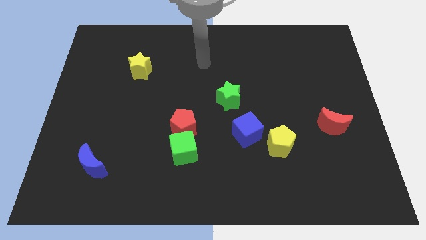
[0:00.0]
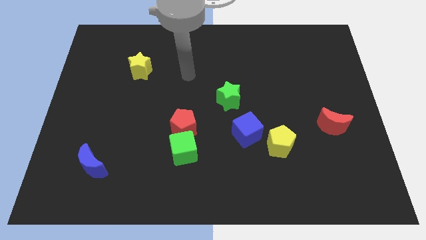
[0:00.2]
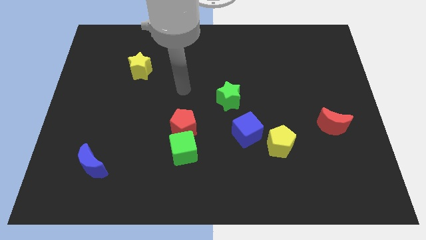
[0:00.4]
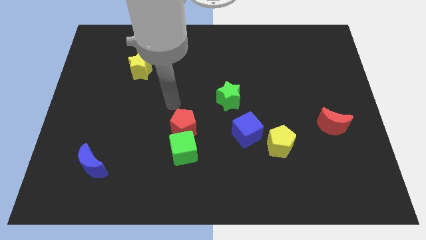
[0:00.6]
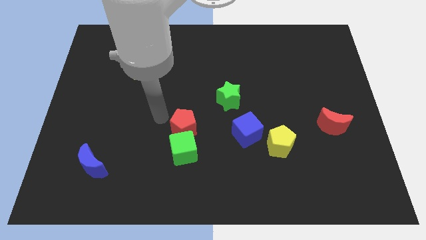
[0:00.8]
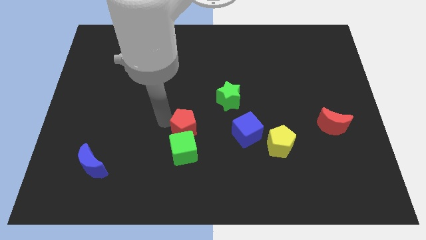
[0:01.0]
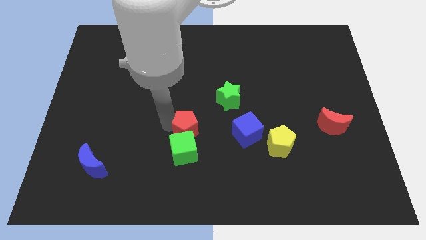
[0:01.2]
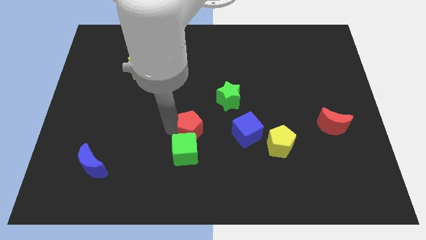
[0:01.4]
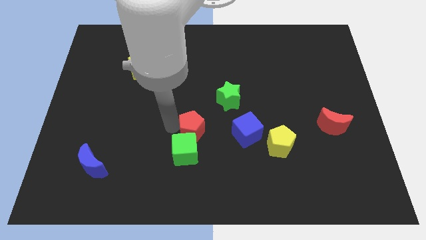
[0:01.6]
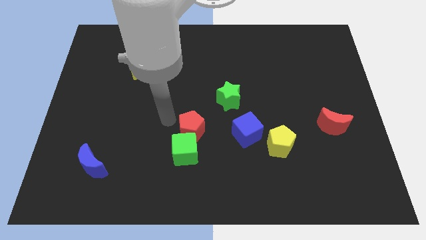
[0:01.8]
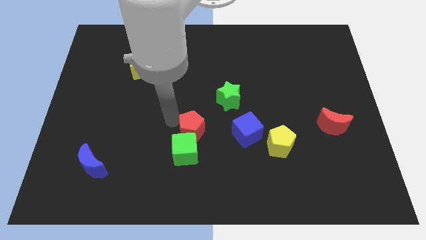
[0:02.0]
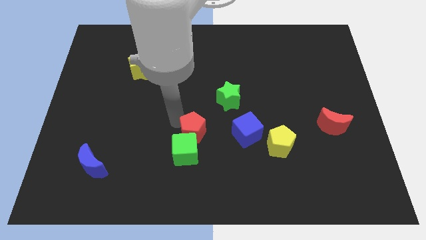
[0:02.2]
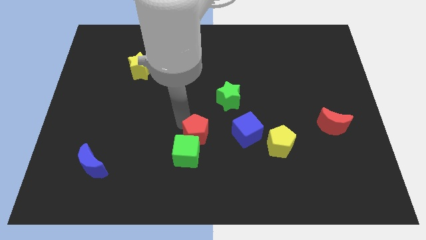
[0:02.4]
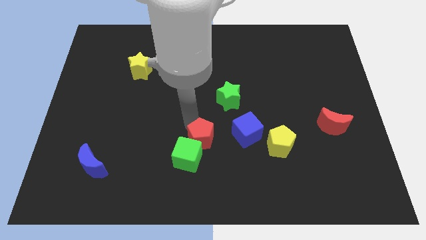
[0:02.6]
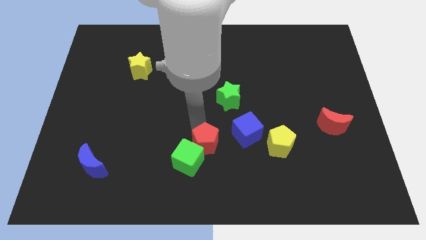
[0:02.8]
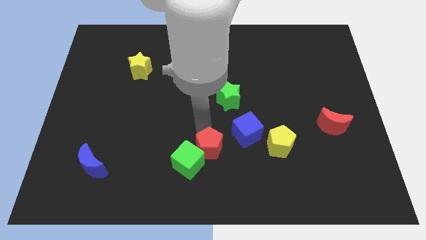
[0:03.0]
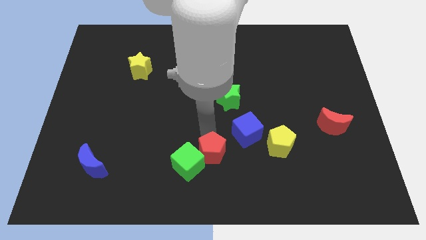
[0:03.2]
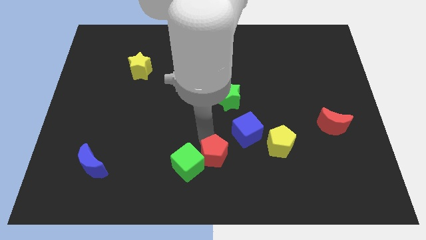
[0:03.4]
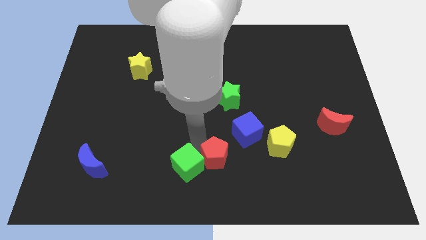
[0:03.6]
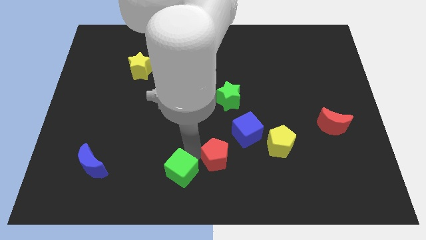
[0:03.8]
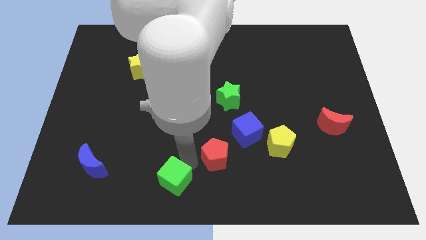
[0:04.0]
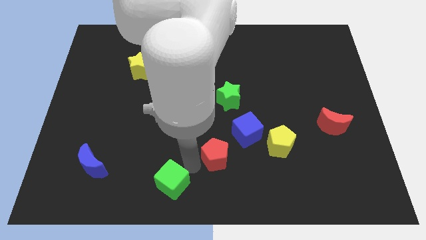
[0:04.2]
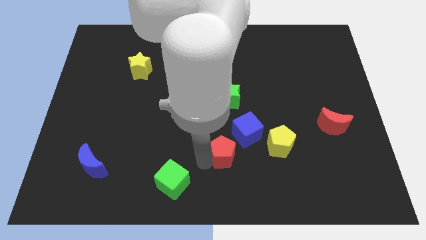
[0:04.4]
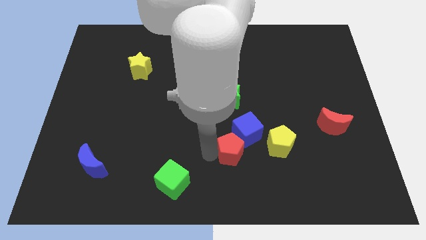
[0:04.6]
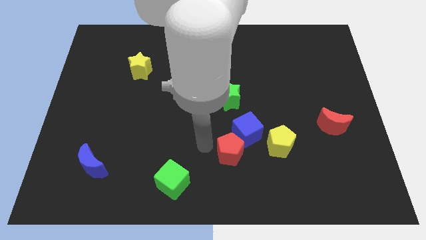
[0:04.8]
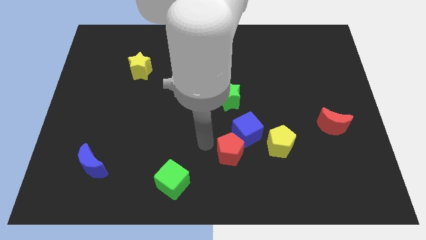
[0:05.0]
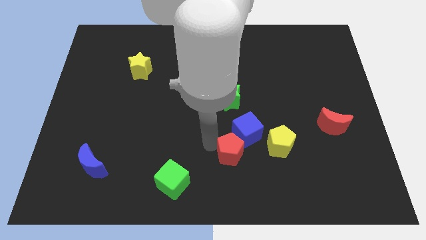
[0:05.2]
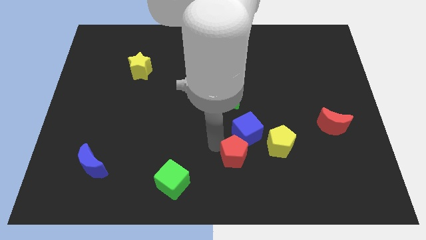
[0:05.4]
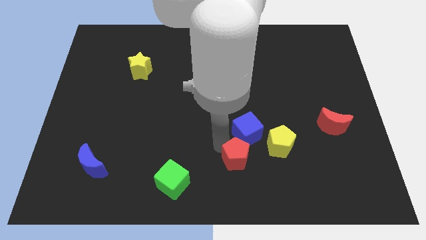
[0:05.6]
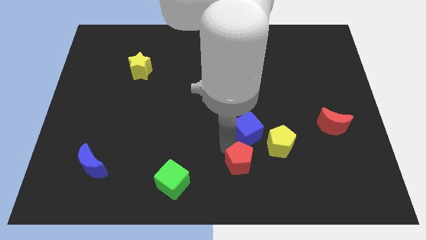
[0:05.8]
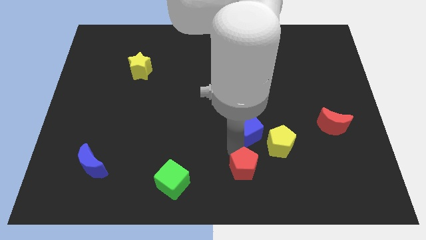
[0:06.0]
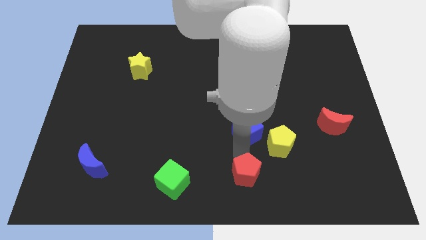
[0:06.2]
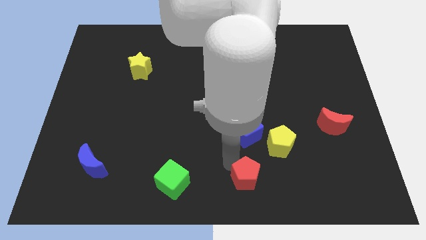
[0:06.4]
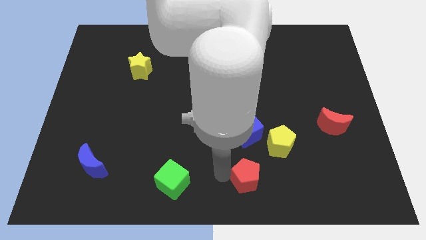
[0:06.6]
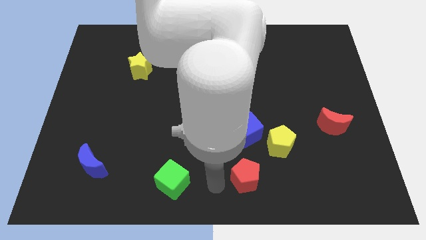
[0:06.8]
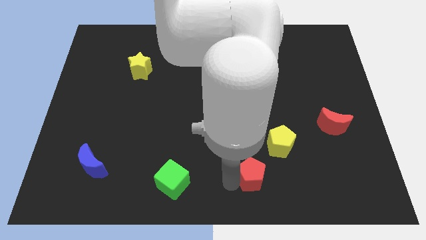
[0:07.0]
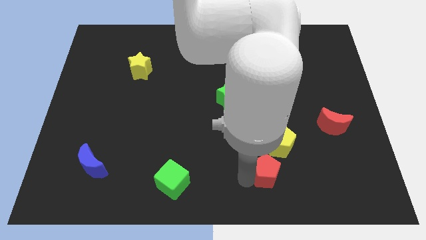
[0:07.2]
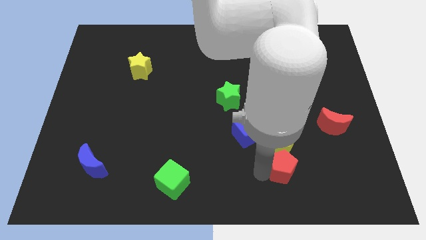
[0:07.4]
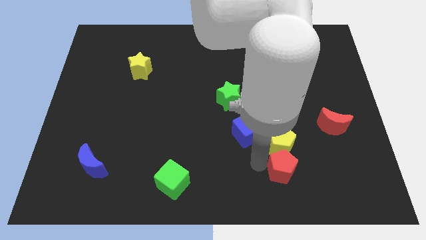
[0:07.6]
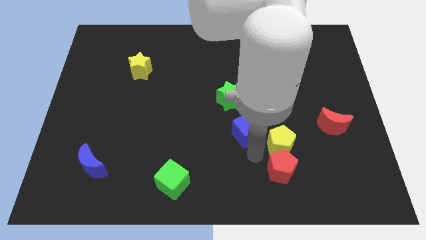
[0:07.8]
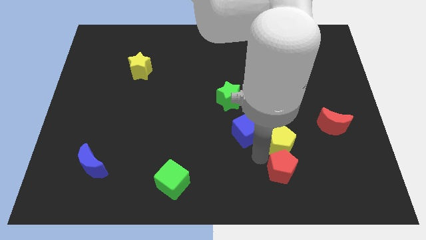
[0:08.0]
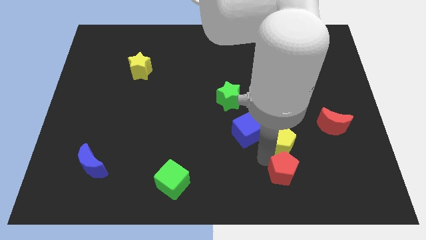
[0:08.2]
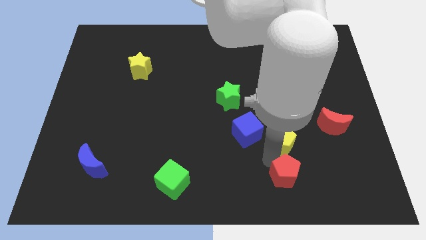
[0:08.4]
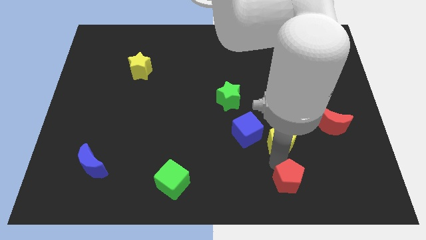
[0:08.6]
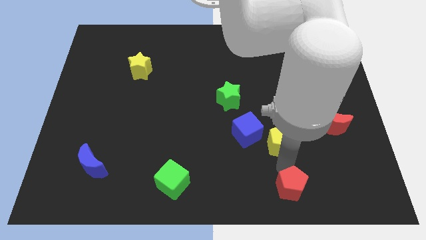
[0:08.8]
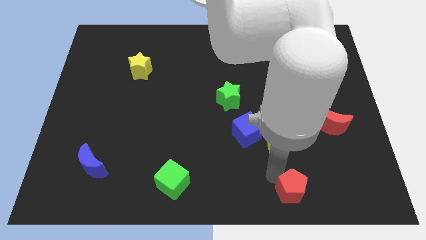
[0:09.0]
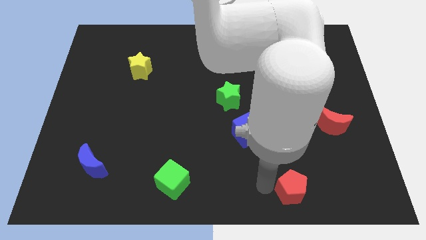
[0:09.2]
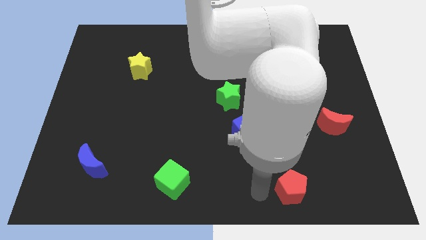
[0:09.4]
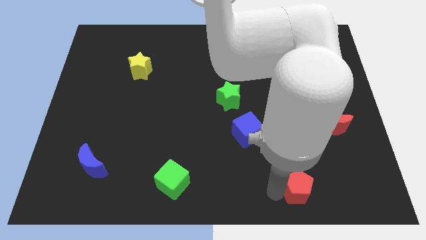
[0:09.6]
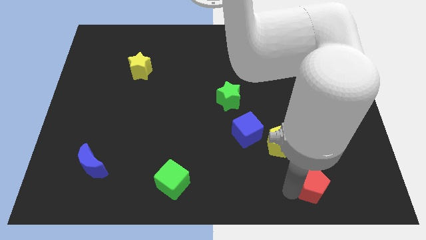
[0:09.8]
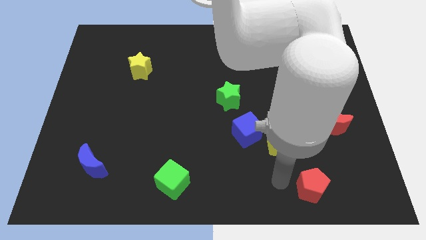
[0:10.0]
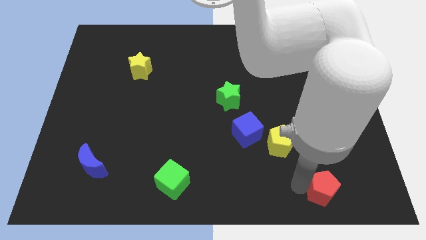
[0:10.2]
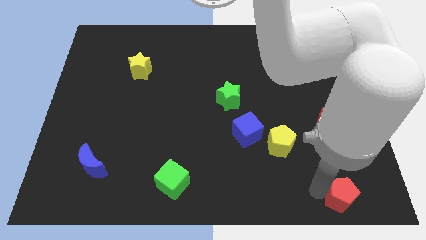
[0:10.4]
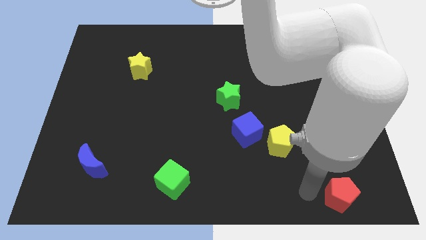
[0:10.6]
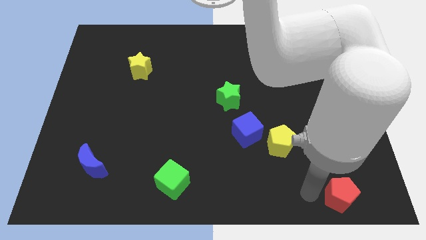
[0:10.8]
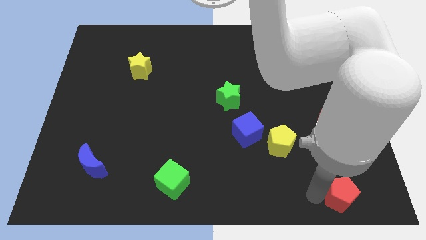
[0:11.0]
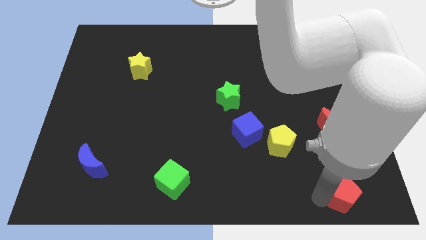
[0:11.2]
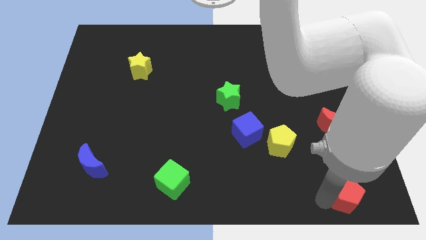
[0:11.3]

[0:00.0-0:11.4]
push the red pentagon to the lower right corner

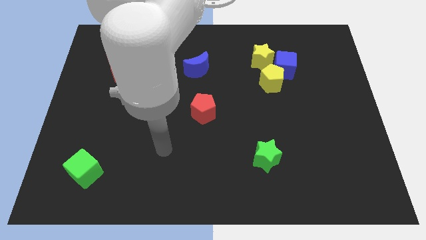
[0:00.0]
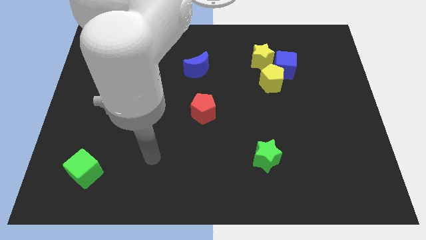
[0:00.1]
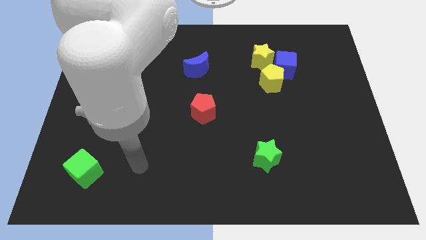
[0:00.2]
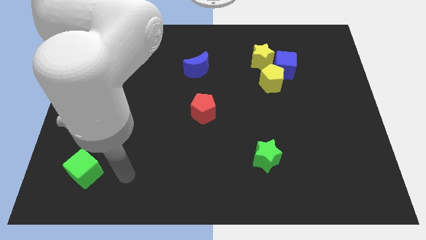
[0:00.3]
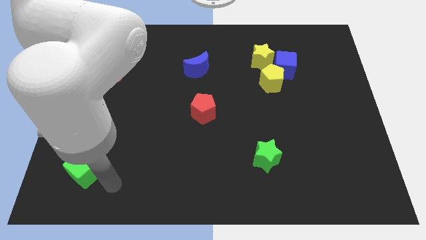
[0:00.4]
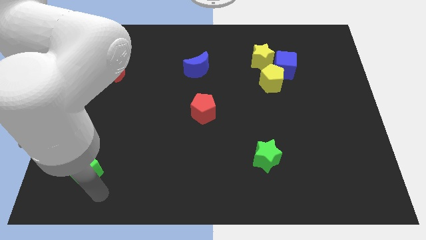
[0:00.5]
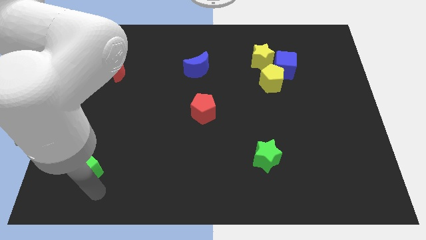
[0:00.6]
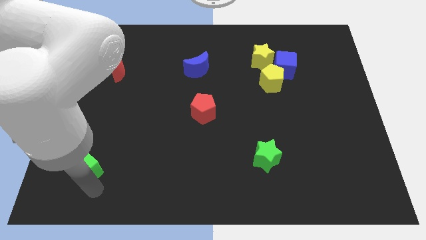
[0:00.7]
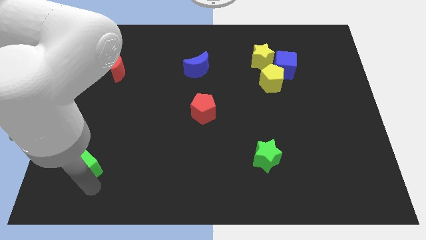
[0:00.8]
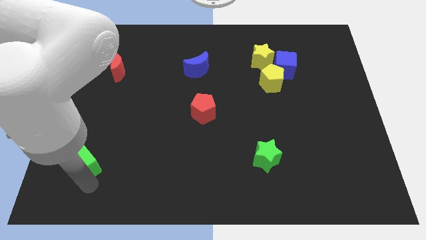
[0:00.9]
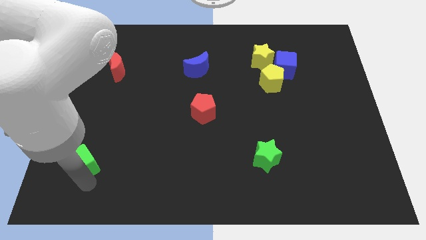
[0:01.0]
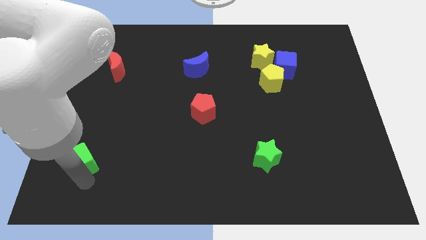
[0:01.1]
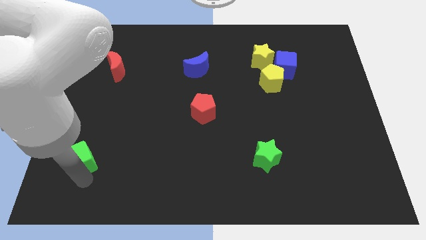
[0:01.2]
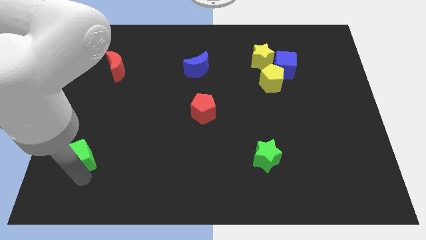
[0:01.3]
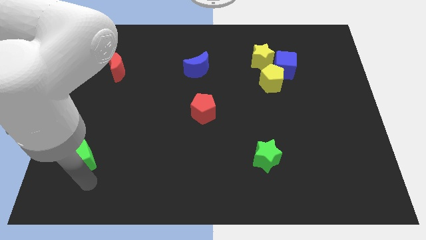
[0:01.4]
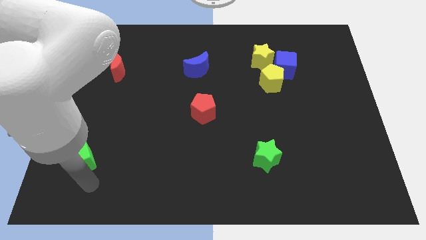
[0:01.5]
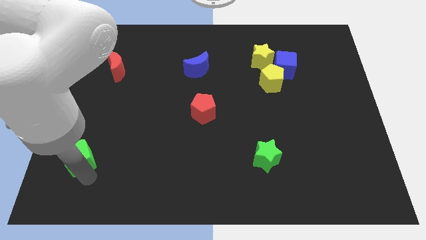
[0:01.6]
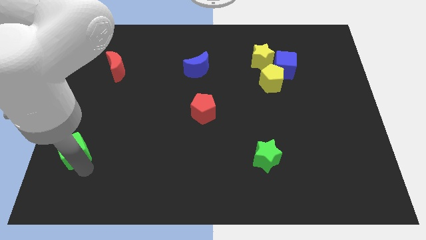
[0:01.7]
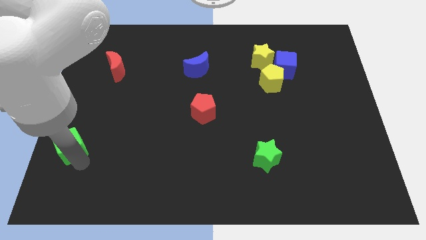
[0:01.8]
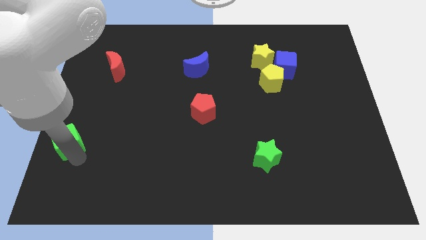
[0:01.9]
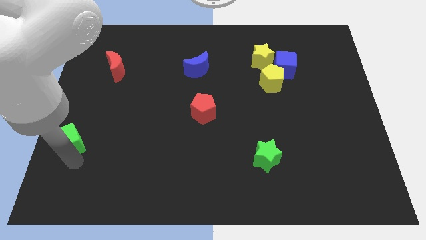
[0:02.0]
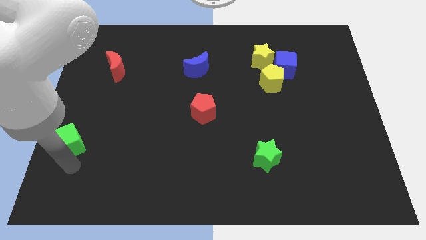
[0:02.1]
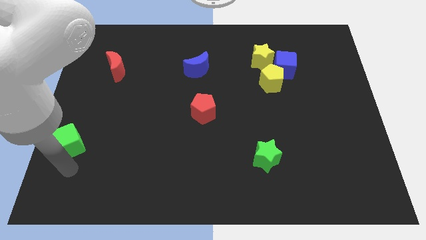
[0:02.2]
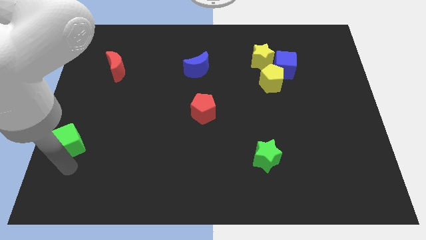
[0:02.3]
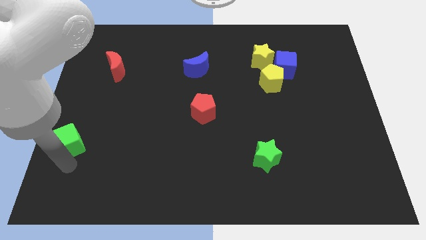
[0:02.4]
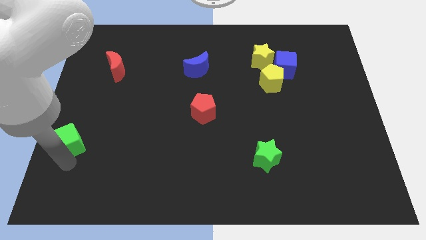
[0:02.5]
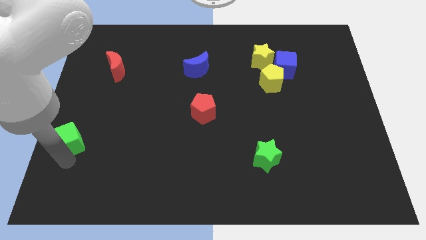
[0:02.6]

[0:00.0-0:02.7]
push the green cube to the center left
